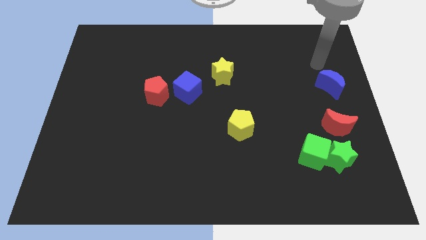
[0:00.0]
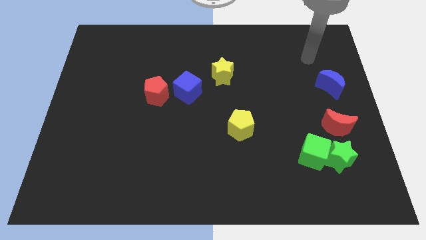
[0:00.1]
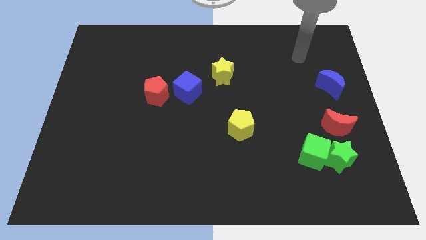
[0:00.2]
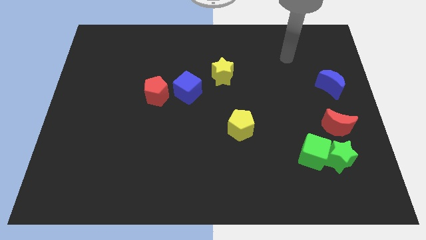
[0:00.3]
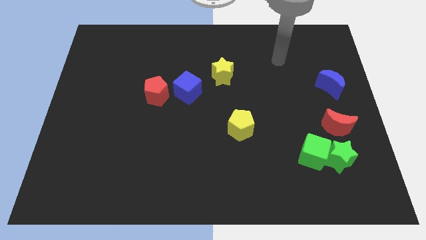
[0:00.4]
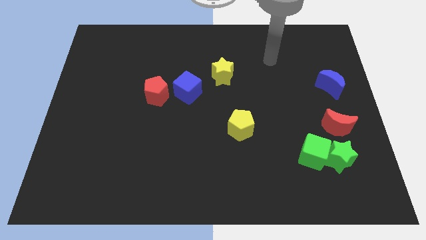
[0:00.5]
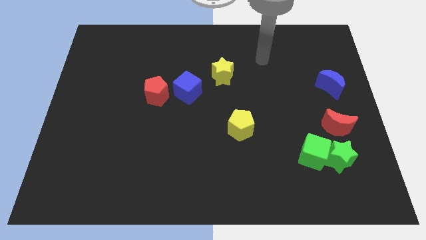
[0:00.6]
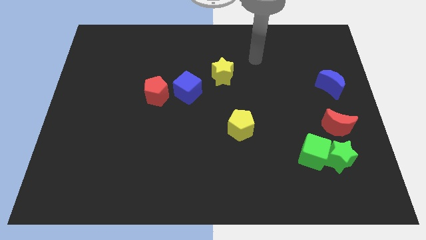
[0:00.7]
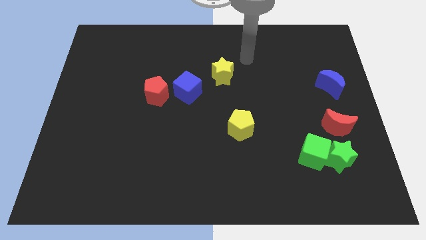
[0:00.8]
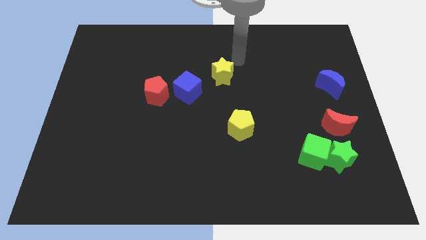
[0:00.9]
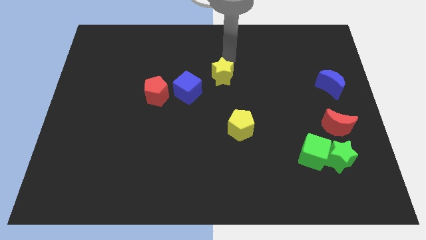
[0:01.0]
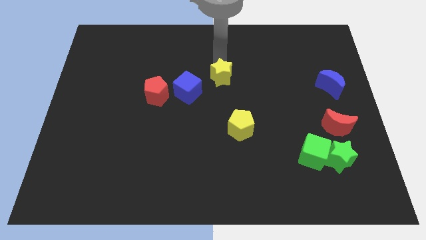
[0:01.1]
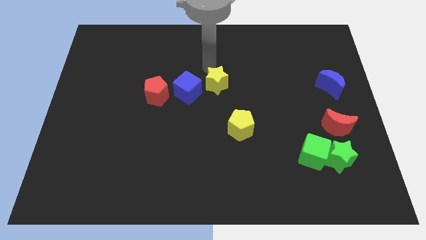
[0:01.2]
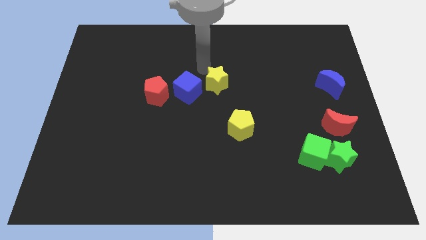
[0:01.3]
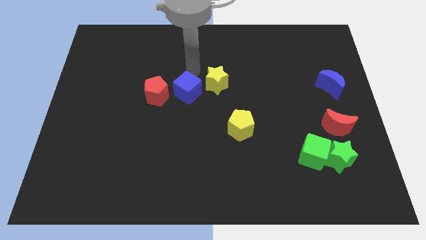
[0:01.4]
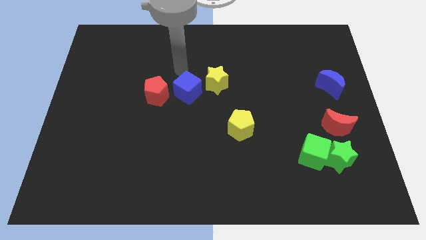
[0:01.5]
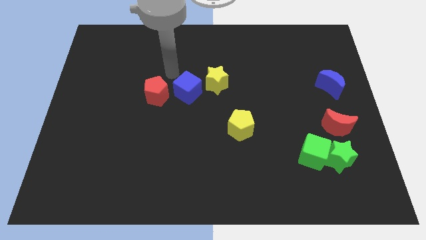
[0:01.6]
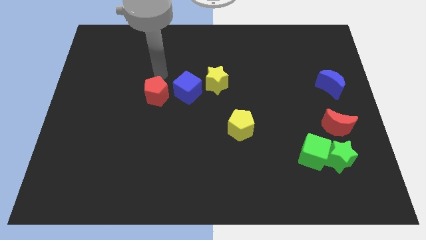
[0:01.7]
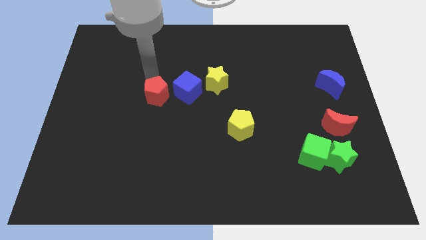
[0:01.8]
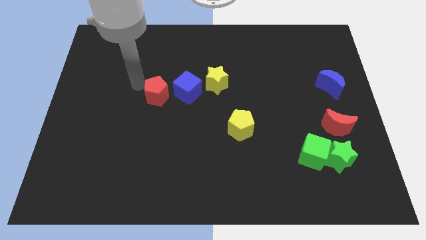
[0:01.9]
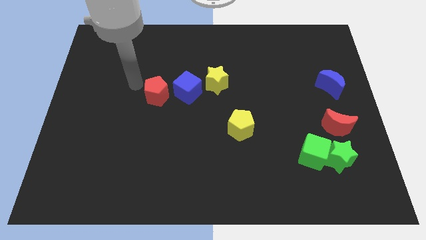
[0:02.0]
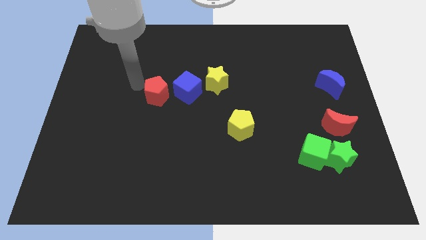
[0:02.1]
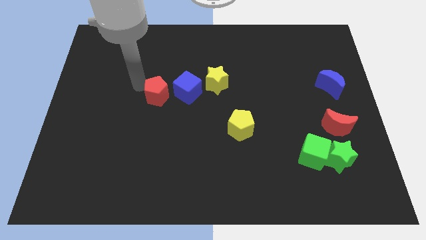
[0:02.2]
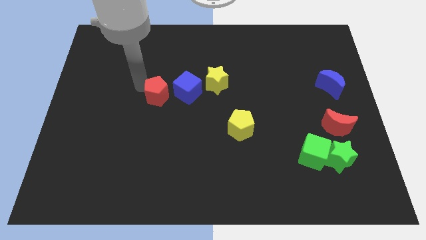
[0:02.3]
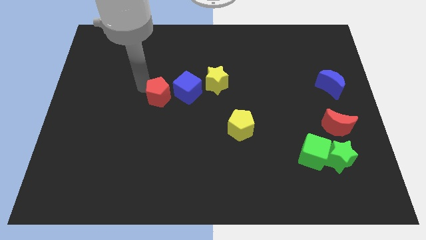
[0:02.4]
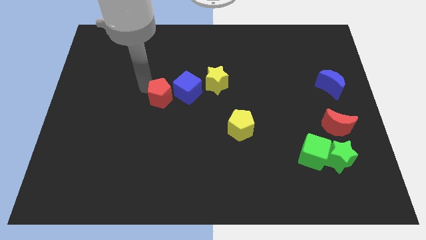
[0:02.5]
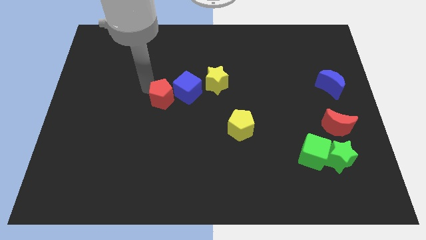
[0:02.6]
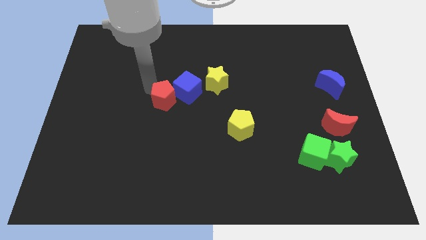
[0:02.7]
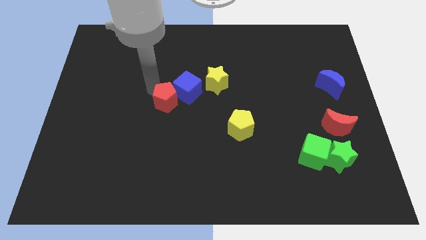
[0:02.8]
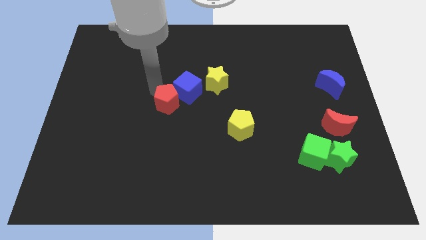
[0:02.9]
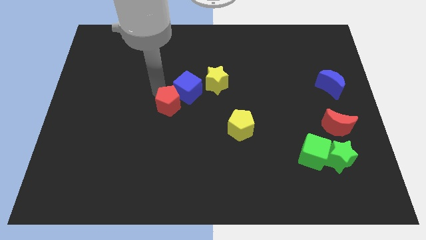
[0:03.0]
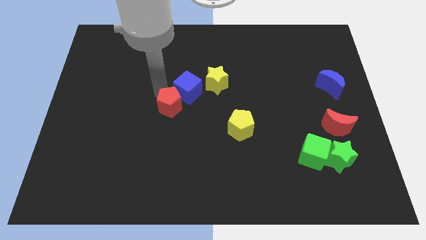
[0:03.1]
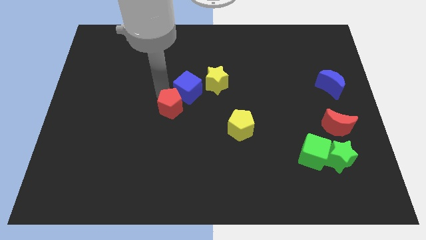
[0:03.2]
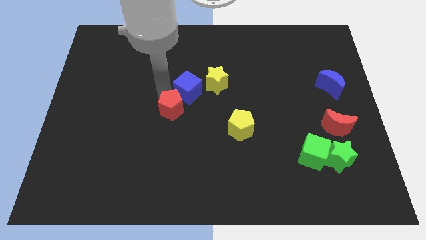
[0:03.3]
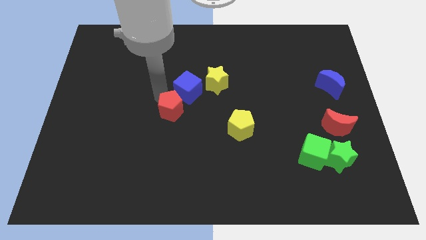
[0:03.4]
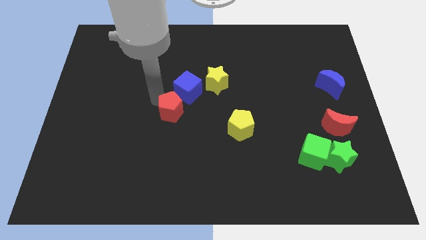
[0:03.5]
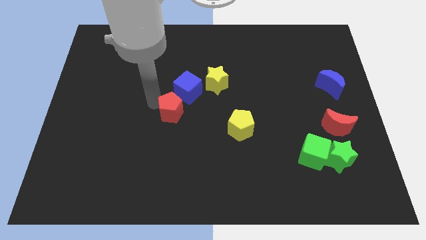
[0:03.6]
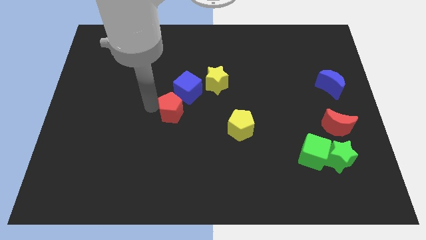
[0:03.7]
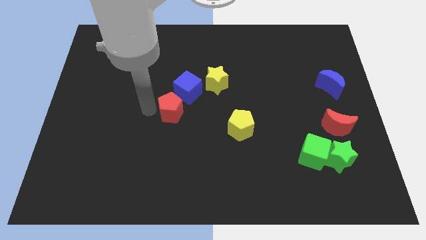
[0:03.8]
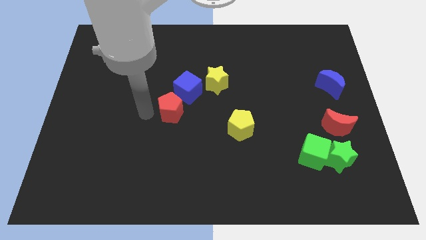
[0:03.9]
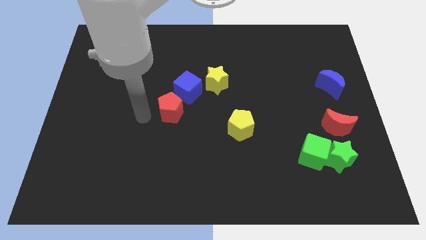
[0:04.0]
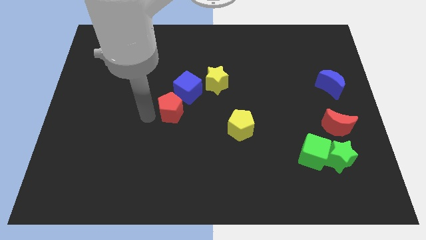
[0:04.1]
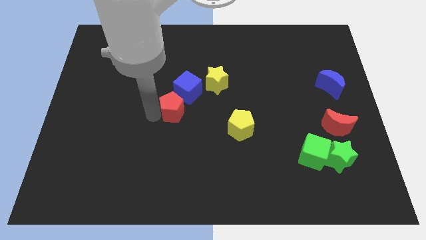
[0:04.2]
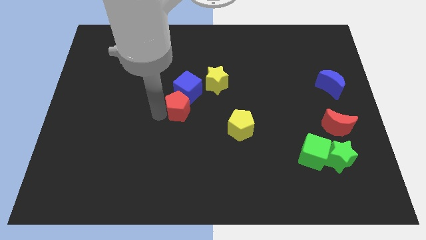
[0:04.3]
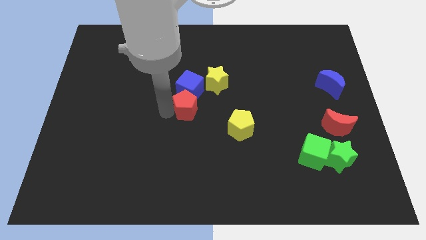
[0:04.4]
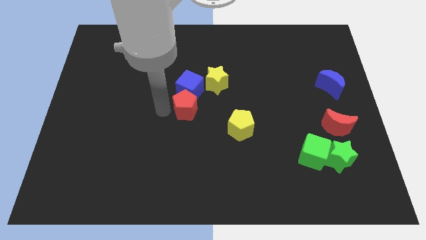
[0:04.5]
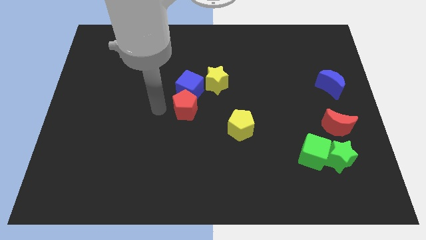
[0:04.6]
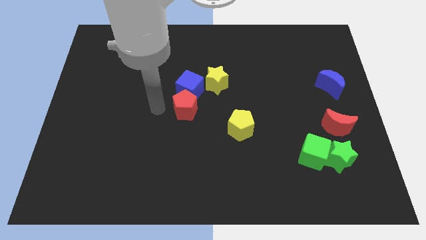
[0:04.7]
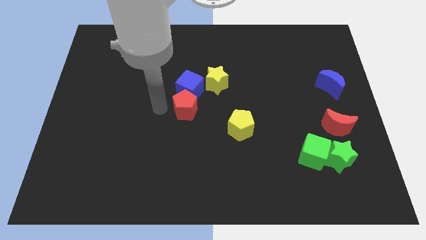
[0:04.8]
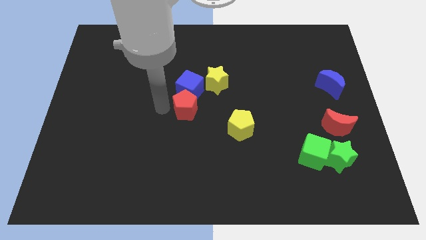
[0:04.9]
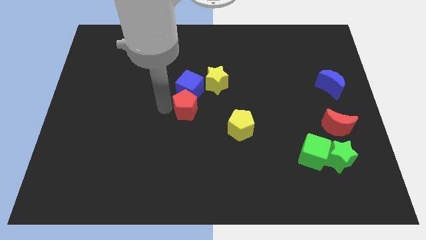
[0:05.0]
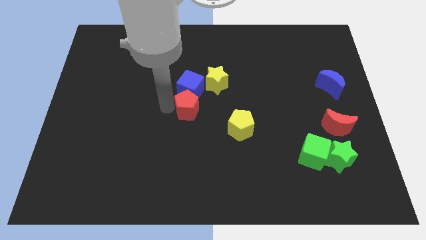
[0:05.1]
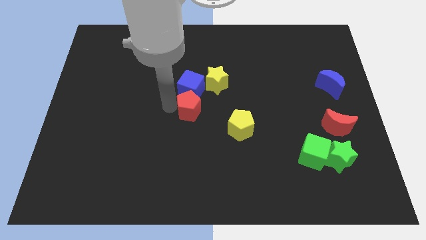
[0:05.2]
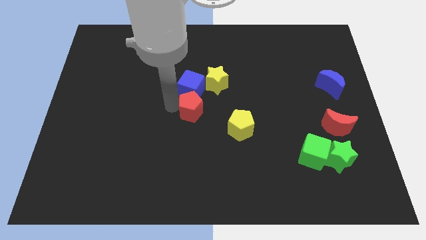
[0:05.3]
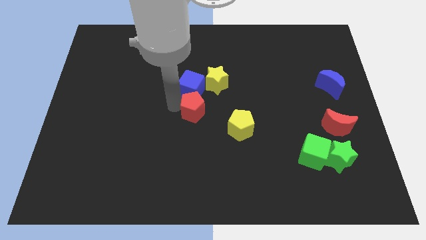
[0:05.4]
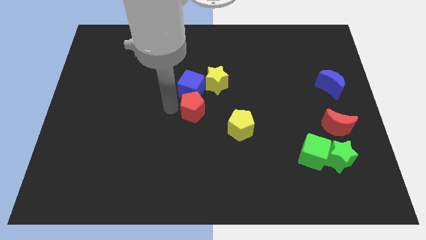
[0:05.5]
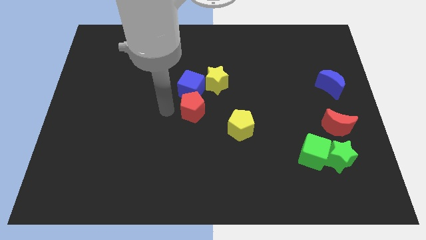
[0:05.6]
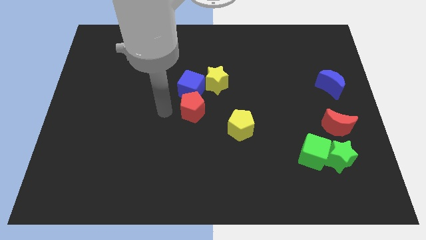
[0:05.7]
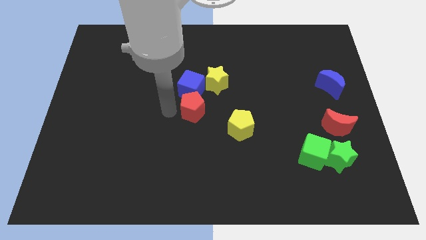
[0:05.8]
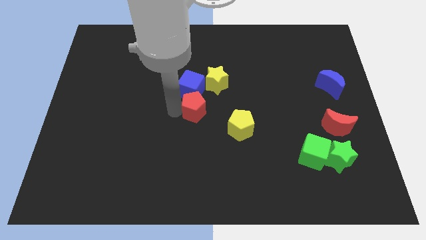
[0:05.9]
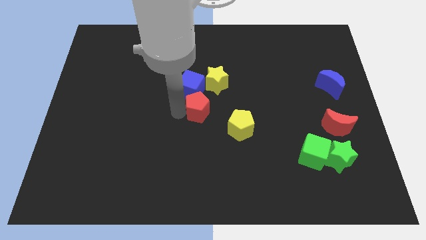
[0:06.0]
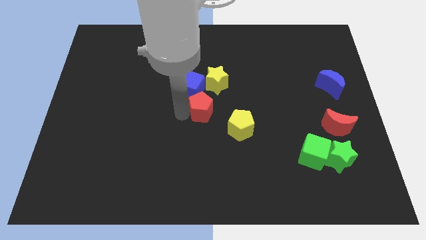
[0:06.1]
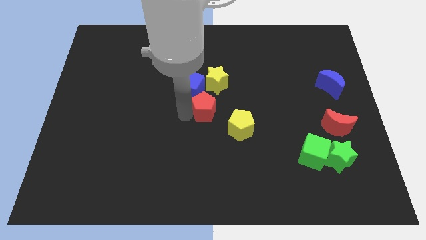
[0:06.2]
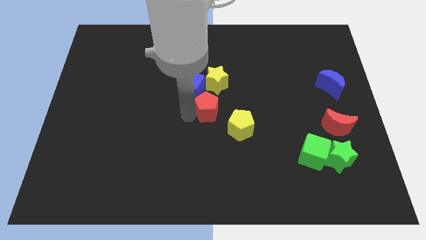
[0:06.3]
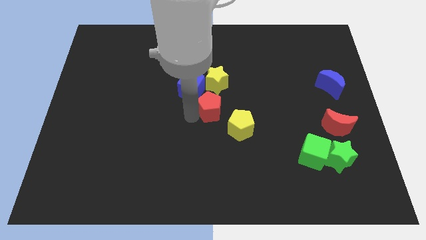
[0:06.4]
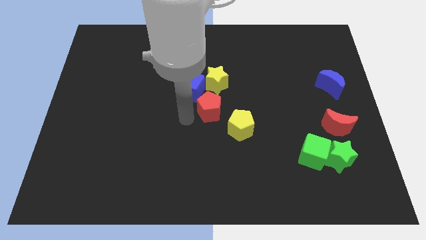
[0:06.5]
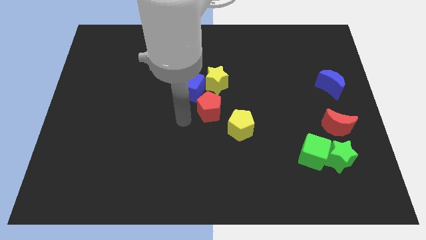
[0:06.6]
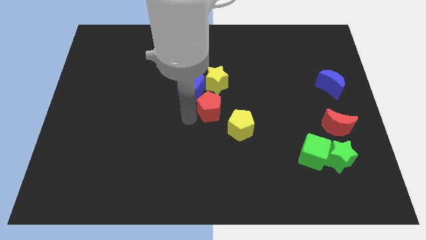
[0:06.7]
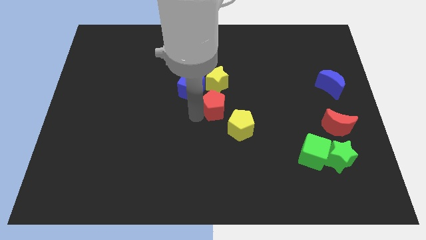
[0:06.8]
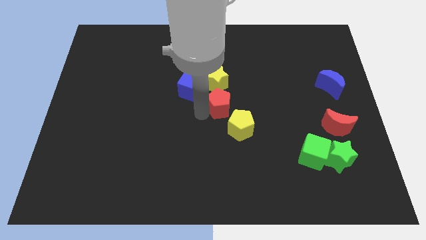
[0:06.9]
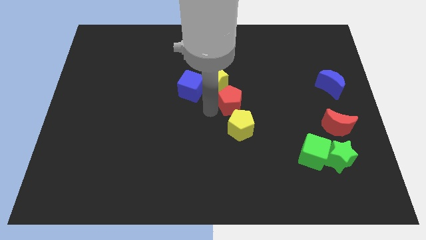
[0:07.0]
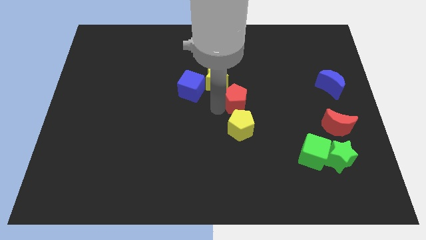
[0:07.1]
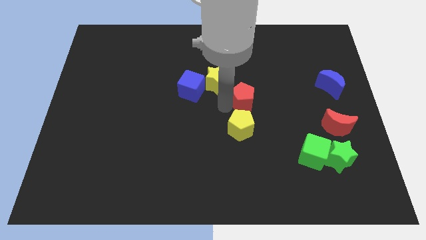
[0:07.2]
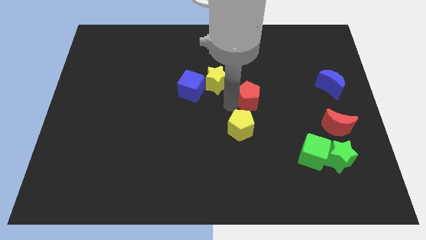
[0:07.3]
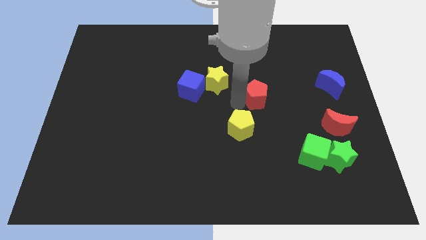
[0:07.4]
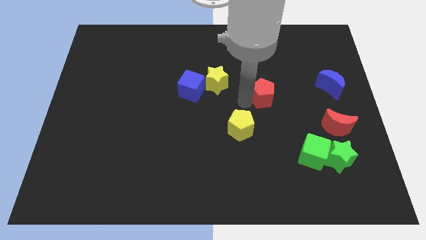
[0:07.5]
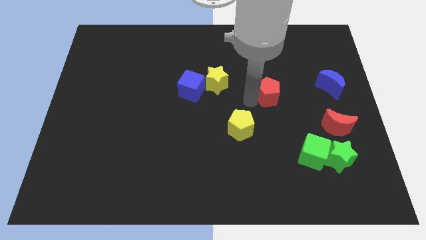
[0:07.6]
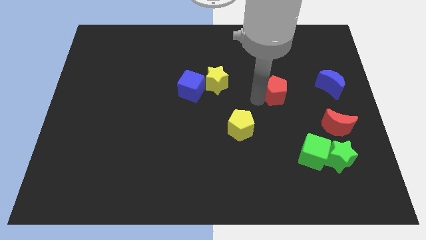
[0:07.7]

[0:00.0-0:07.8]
put the red pentagon left of the blue moon
